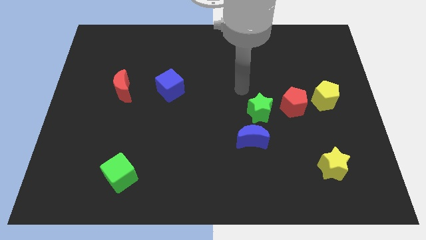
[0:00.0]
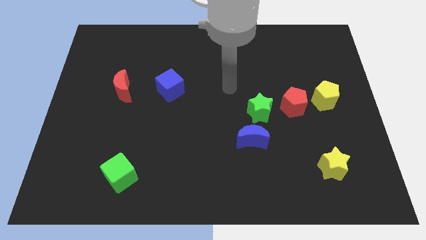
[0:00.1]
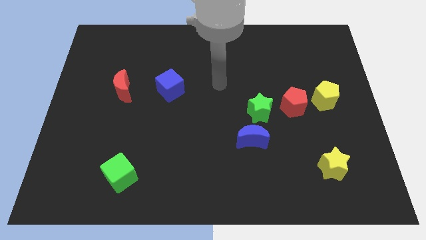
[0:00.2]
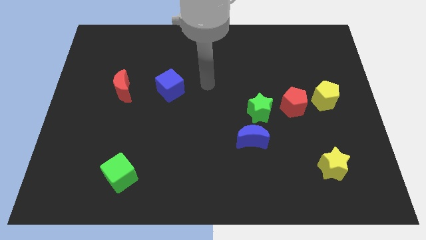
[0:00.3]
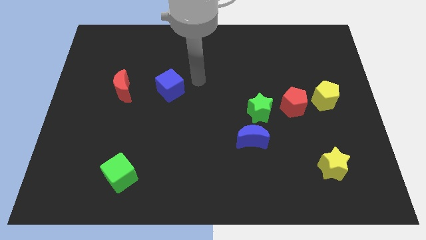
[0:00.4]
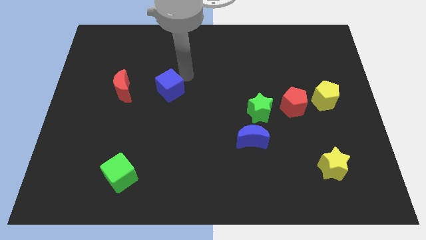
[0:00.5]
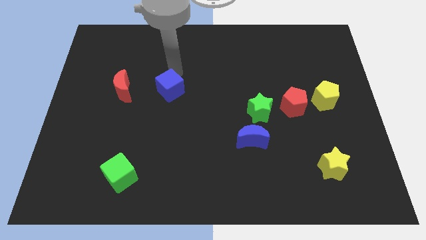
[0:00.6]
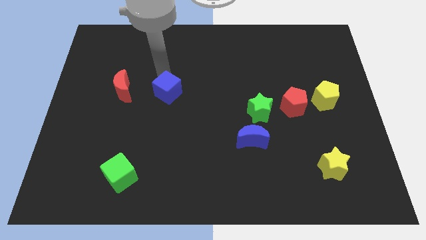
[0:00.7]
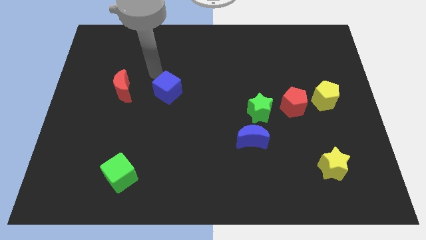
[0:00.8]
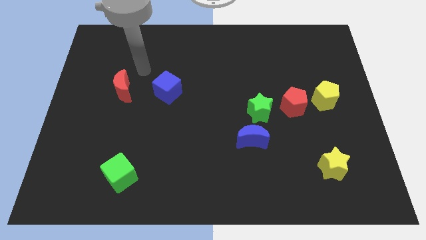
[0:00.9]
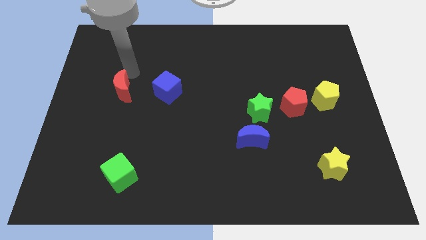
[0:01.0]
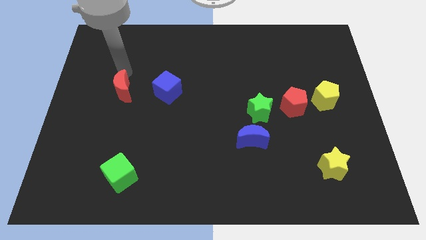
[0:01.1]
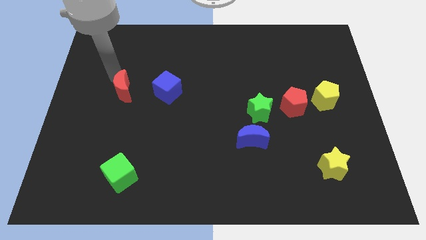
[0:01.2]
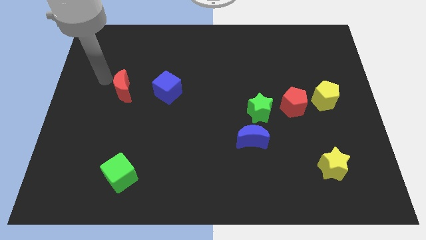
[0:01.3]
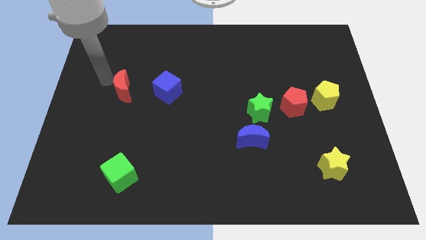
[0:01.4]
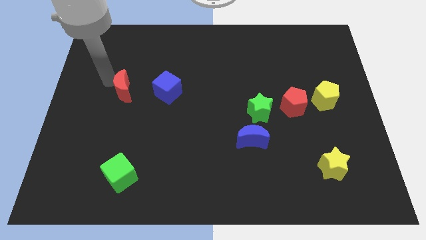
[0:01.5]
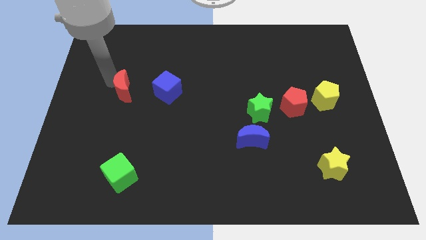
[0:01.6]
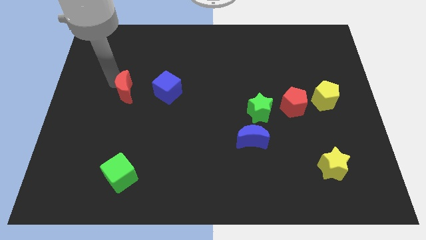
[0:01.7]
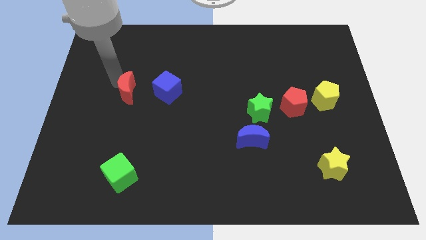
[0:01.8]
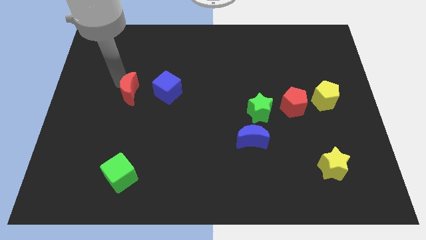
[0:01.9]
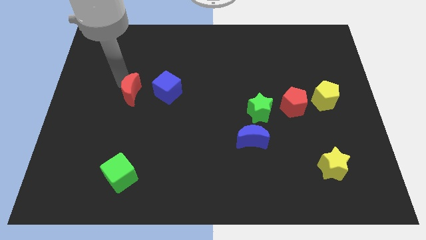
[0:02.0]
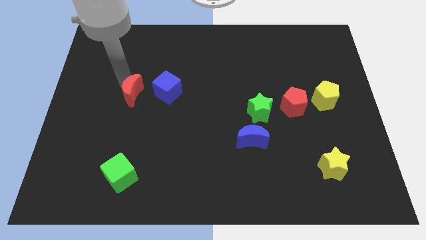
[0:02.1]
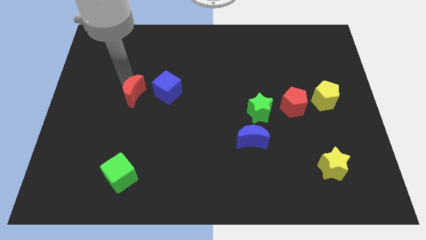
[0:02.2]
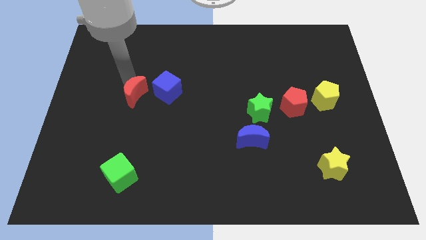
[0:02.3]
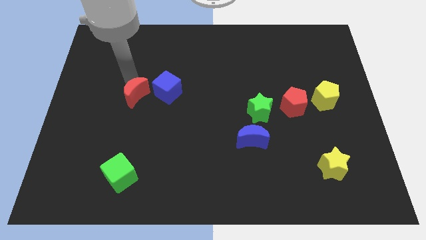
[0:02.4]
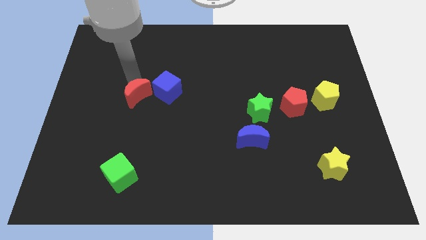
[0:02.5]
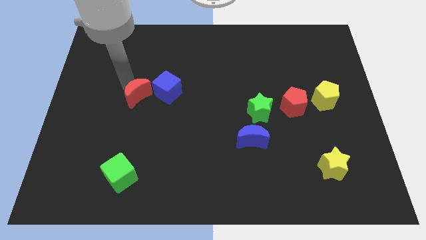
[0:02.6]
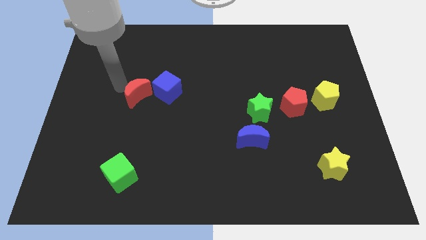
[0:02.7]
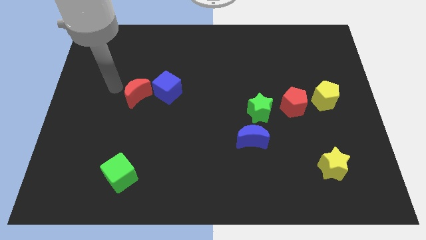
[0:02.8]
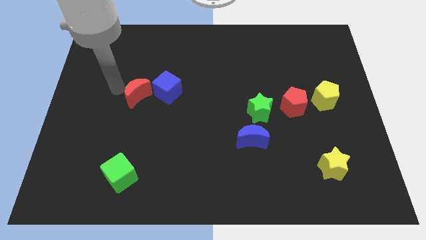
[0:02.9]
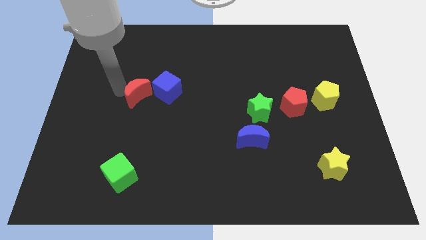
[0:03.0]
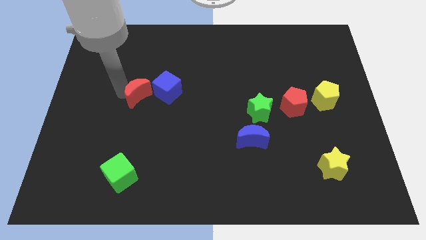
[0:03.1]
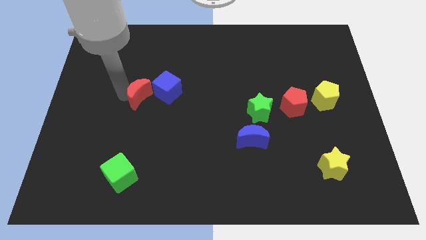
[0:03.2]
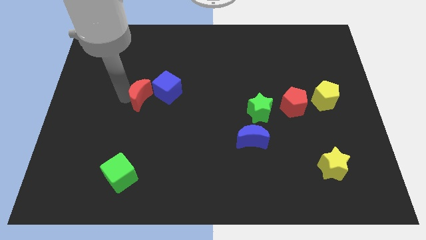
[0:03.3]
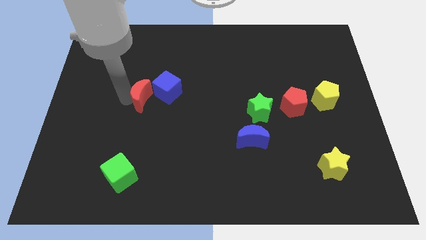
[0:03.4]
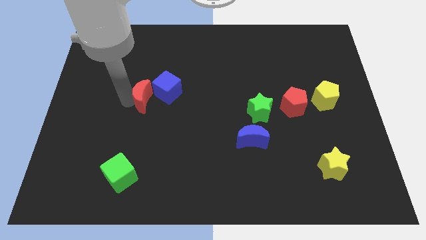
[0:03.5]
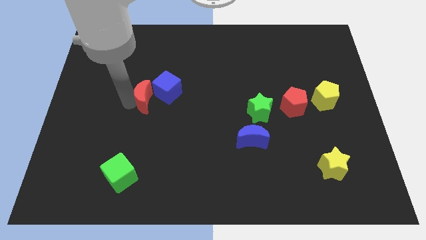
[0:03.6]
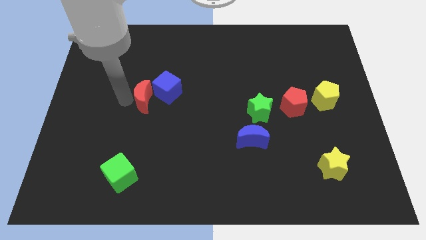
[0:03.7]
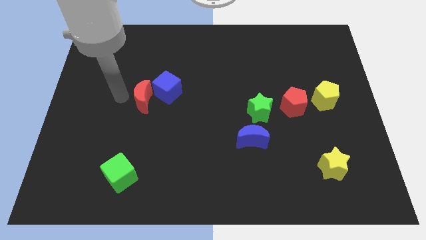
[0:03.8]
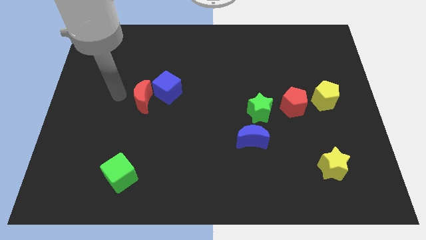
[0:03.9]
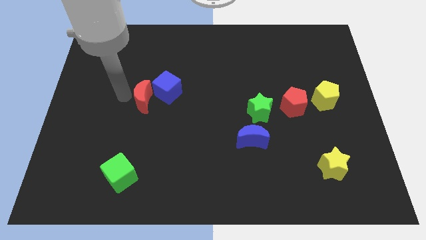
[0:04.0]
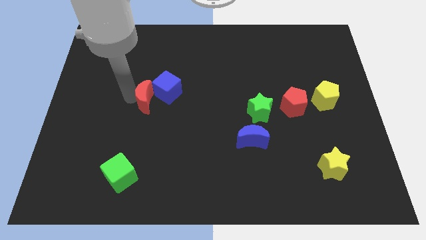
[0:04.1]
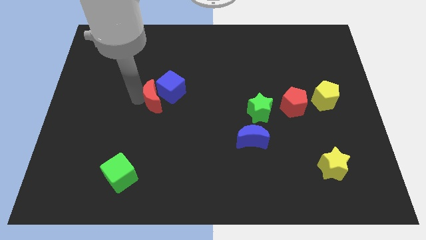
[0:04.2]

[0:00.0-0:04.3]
move the red moon right somewhat

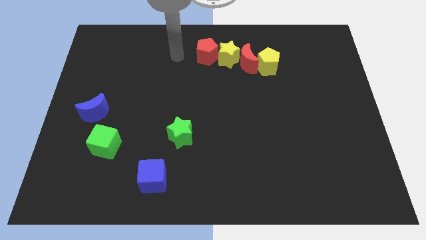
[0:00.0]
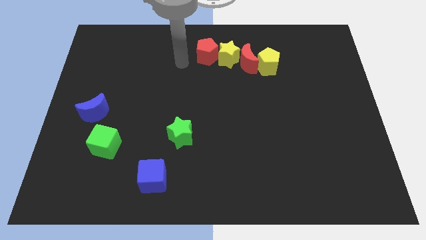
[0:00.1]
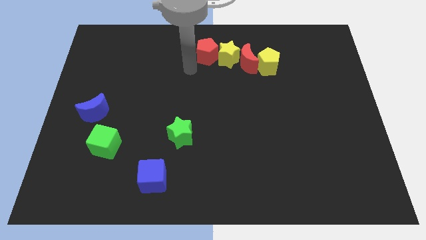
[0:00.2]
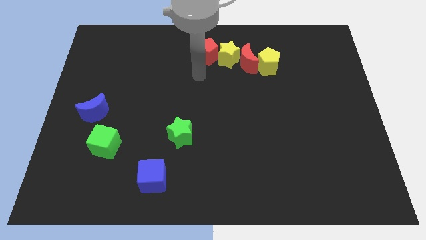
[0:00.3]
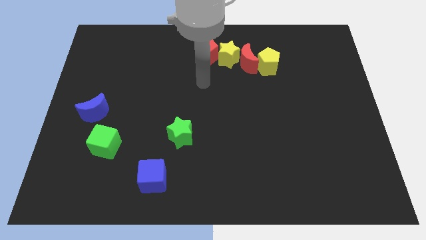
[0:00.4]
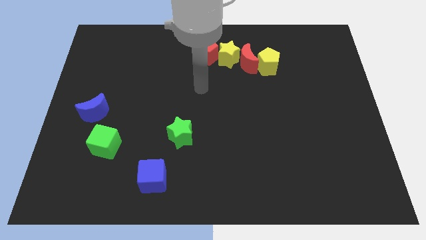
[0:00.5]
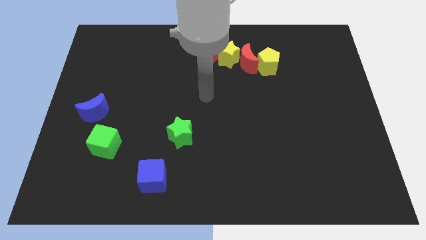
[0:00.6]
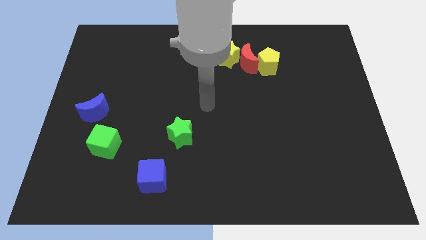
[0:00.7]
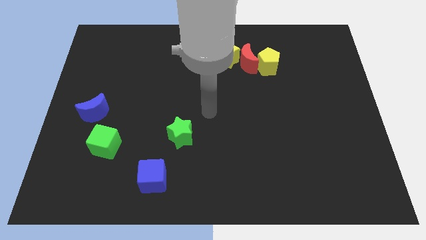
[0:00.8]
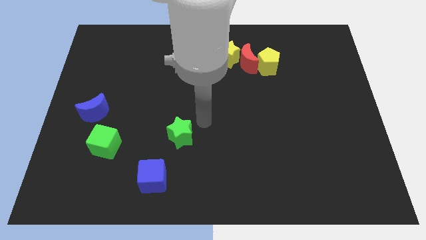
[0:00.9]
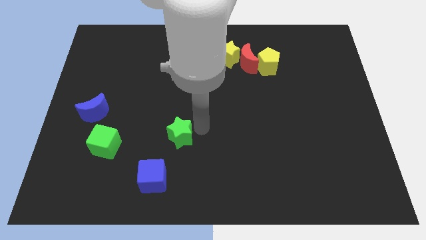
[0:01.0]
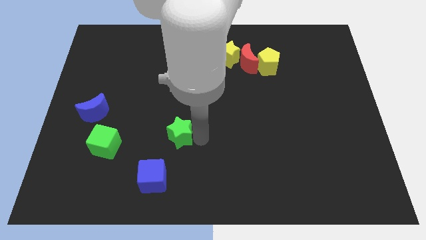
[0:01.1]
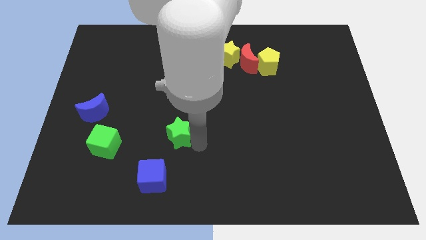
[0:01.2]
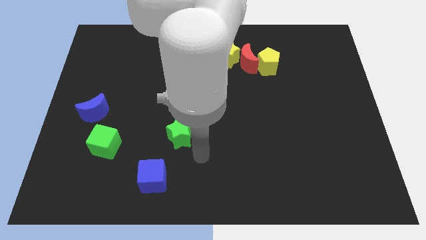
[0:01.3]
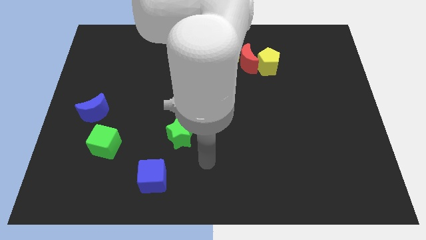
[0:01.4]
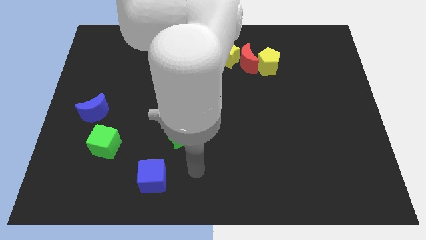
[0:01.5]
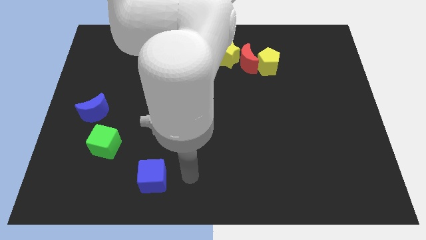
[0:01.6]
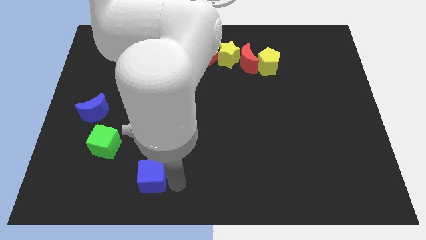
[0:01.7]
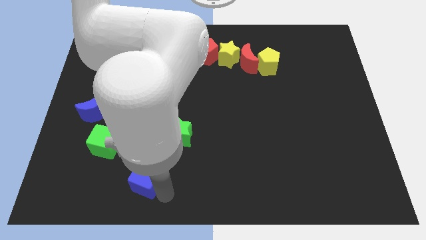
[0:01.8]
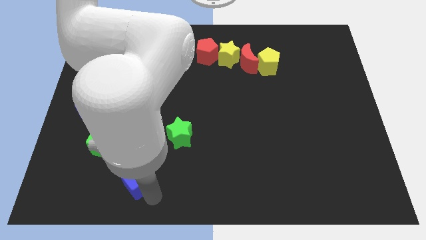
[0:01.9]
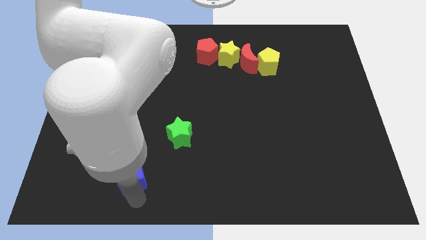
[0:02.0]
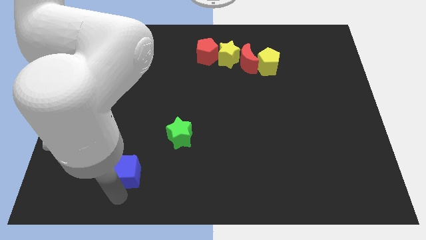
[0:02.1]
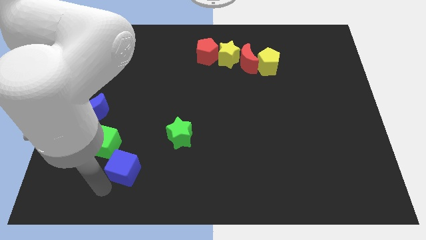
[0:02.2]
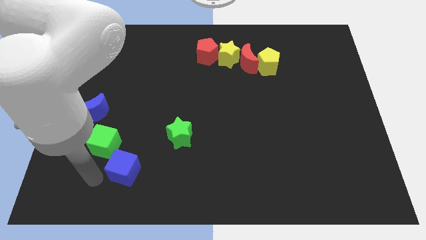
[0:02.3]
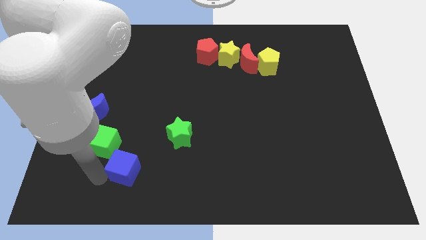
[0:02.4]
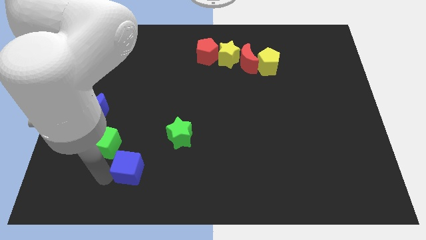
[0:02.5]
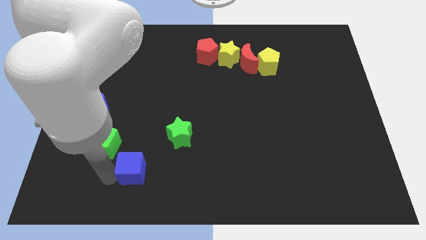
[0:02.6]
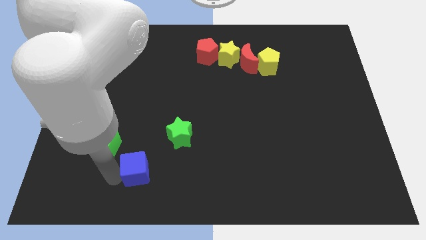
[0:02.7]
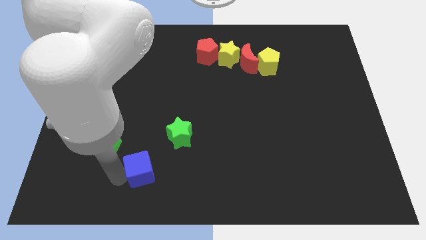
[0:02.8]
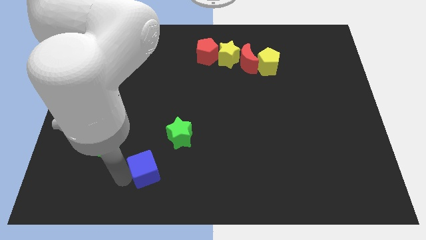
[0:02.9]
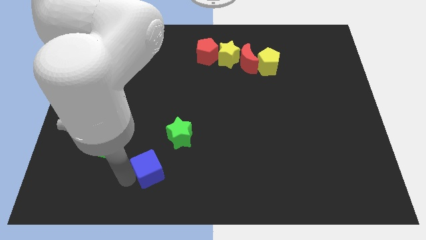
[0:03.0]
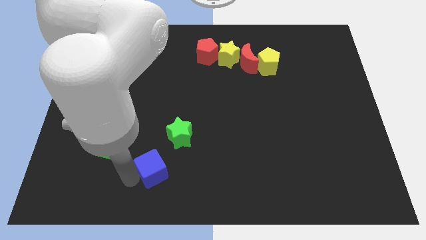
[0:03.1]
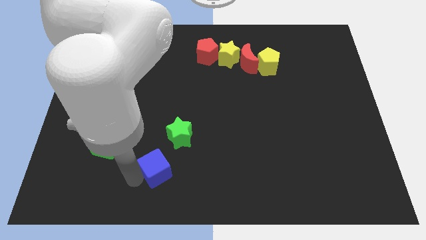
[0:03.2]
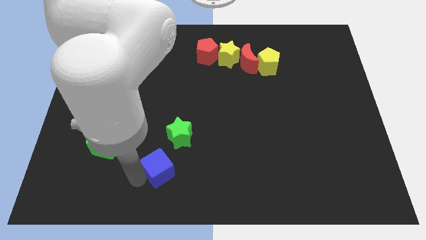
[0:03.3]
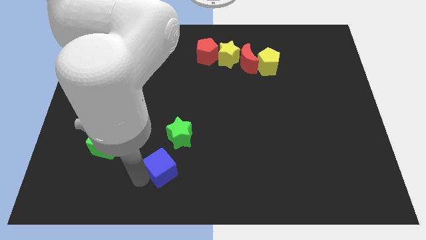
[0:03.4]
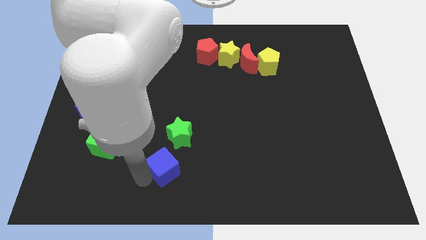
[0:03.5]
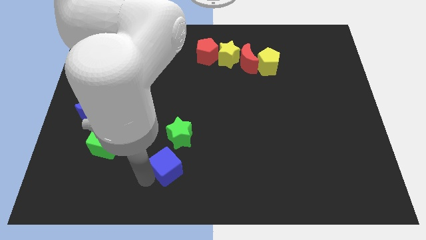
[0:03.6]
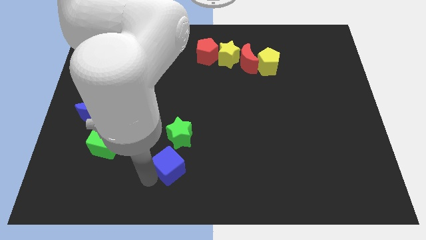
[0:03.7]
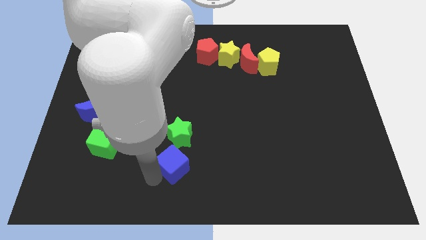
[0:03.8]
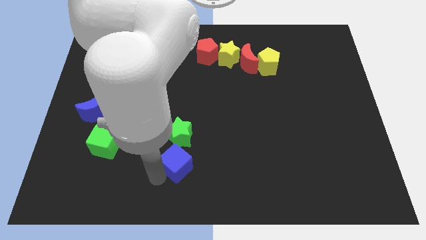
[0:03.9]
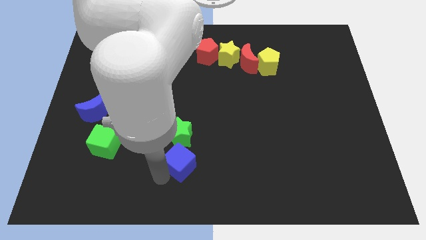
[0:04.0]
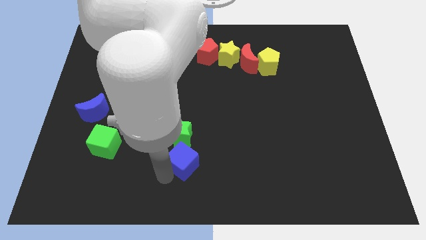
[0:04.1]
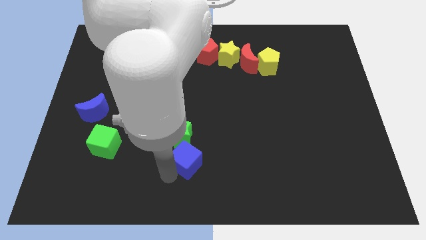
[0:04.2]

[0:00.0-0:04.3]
slide the blue cube upwards and to the right diagonally a little
